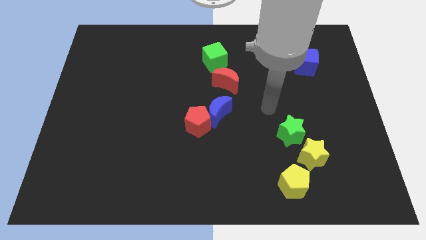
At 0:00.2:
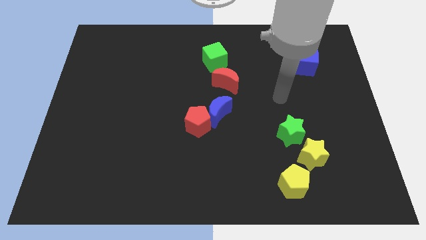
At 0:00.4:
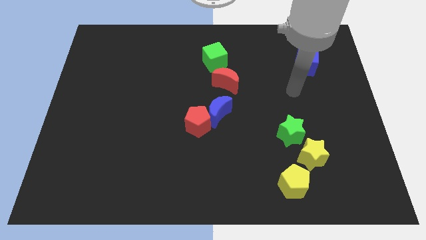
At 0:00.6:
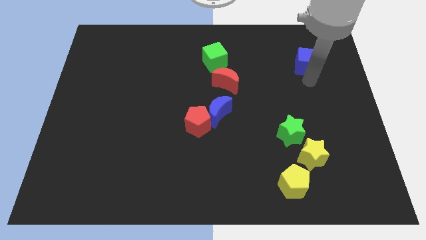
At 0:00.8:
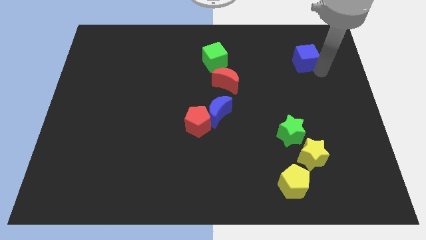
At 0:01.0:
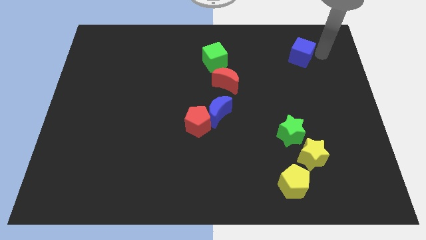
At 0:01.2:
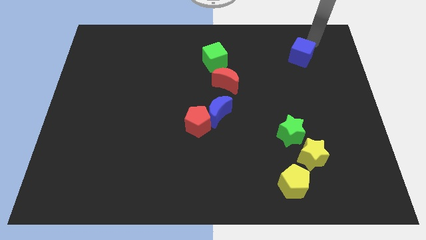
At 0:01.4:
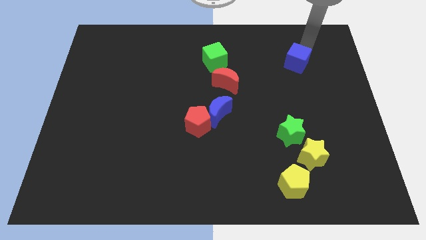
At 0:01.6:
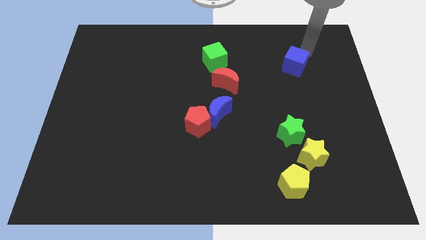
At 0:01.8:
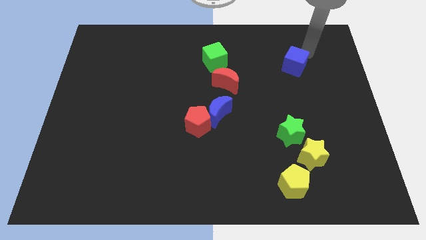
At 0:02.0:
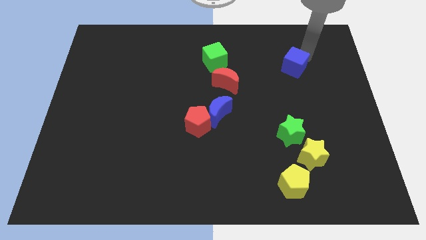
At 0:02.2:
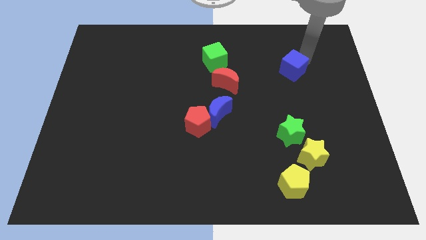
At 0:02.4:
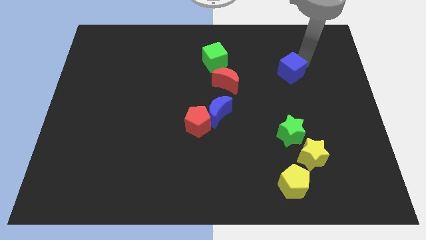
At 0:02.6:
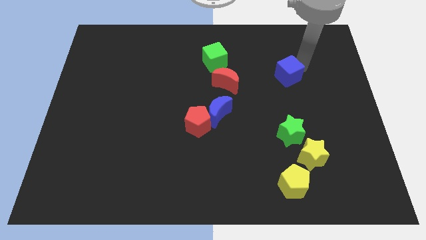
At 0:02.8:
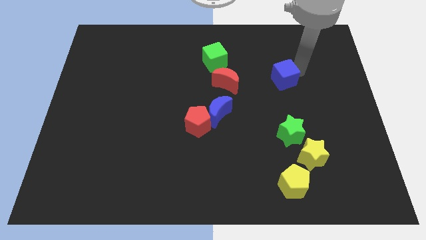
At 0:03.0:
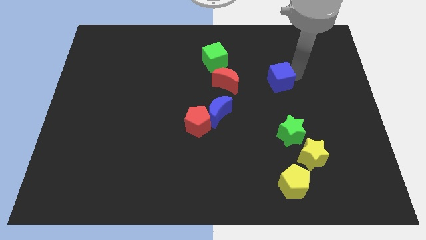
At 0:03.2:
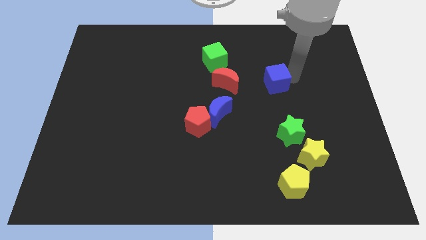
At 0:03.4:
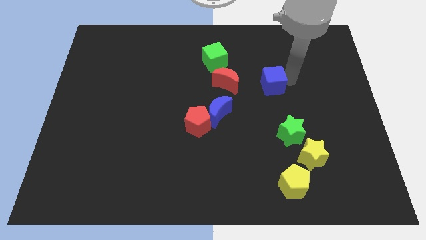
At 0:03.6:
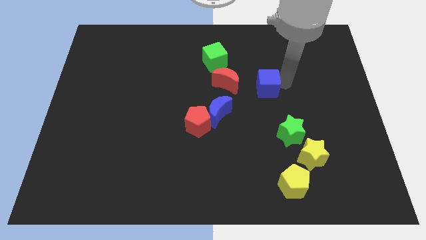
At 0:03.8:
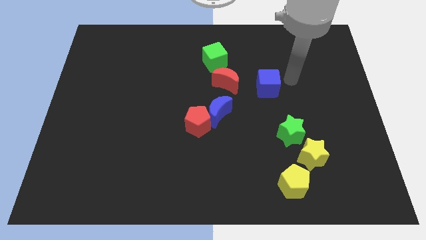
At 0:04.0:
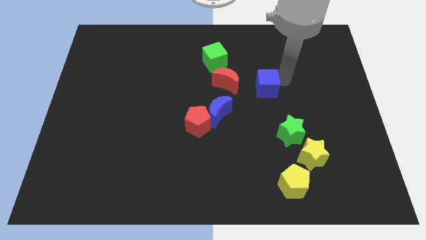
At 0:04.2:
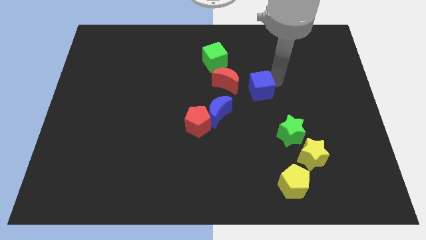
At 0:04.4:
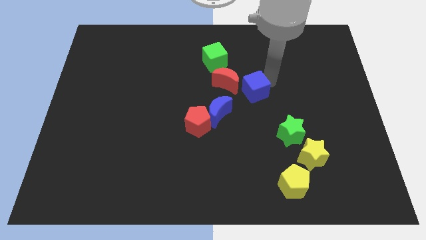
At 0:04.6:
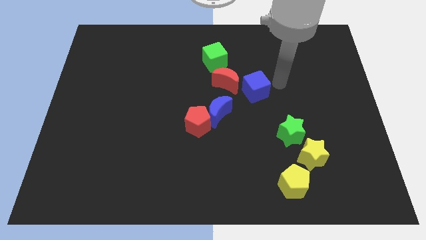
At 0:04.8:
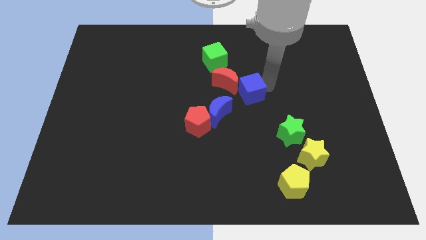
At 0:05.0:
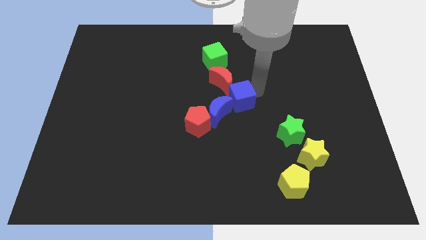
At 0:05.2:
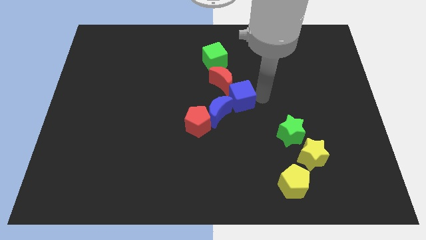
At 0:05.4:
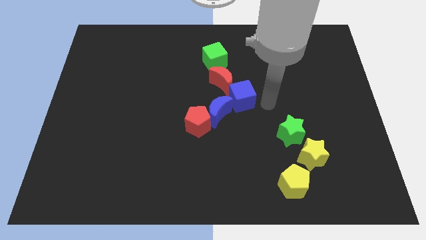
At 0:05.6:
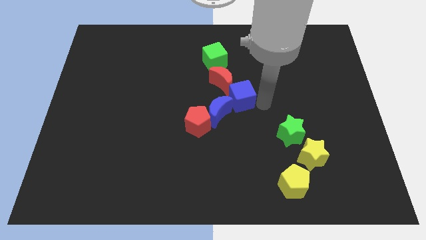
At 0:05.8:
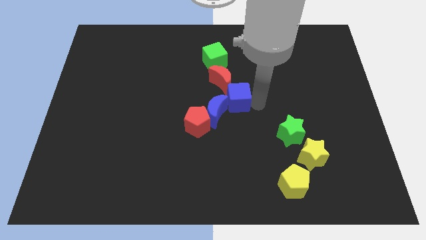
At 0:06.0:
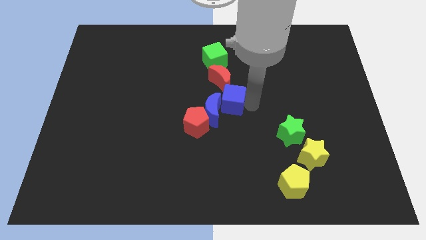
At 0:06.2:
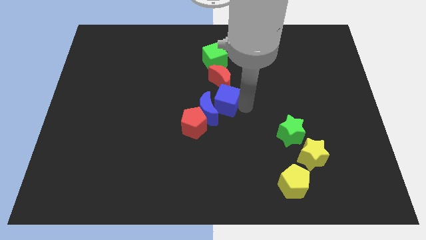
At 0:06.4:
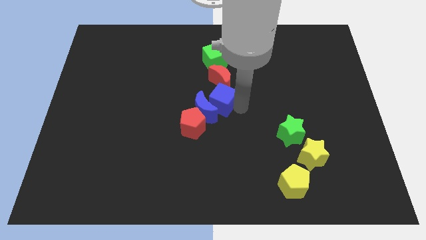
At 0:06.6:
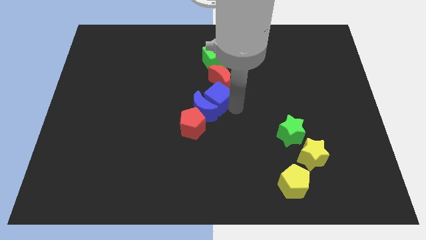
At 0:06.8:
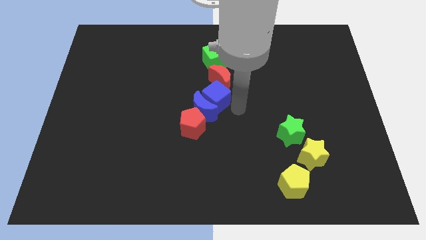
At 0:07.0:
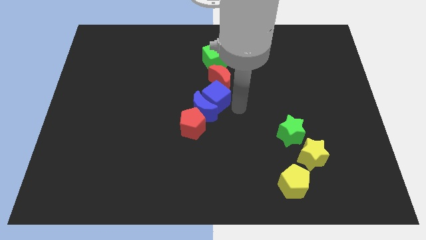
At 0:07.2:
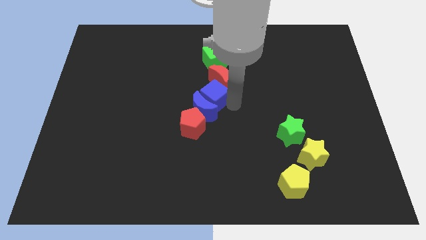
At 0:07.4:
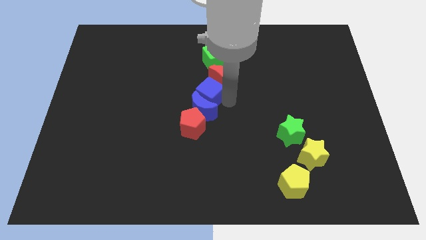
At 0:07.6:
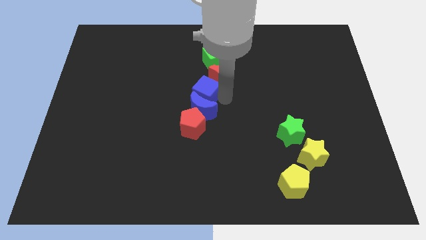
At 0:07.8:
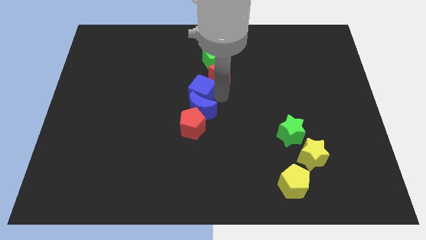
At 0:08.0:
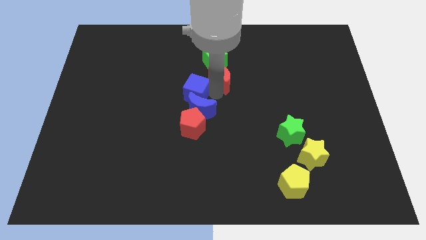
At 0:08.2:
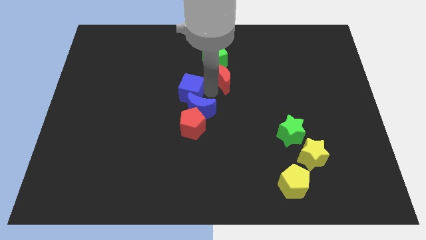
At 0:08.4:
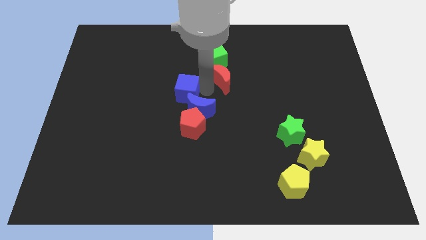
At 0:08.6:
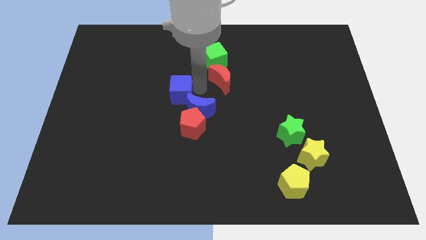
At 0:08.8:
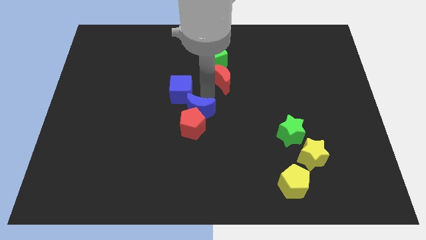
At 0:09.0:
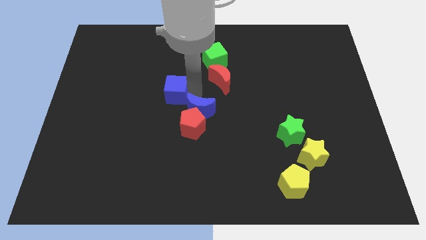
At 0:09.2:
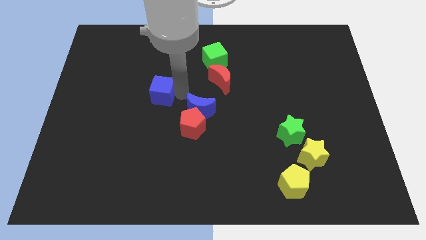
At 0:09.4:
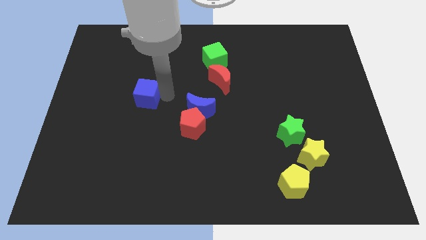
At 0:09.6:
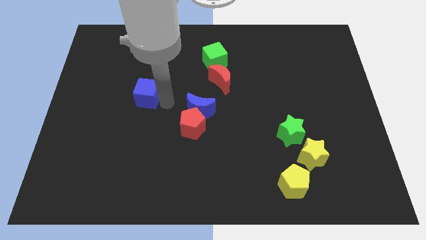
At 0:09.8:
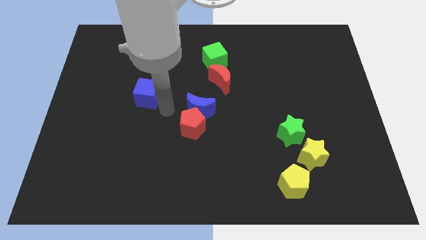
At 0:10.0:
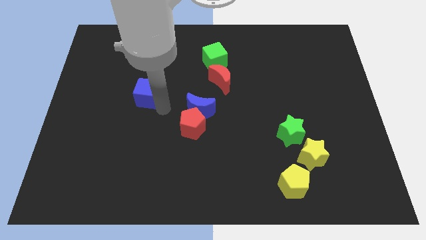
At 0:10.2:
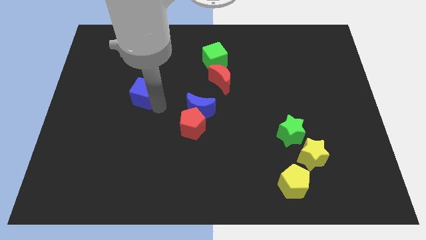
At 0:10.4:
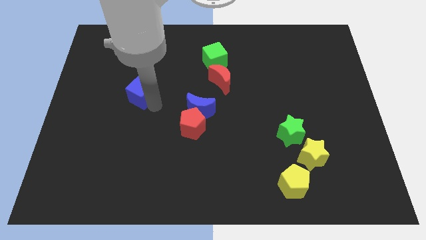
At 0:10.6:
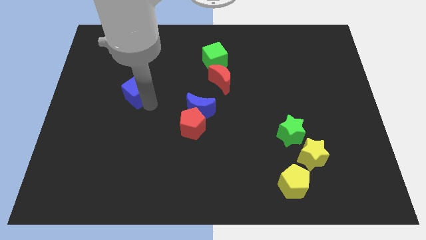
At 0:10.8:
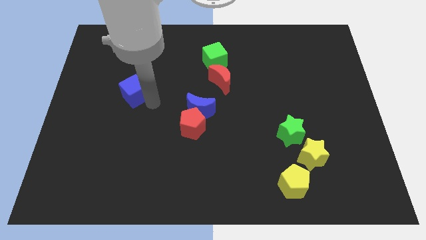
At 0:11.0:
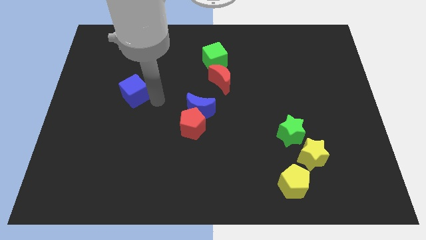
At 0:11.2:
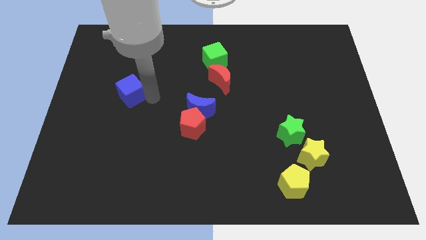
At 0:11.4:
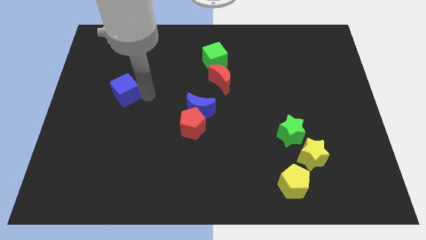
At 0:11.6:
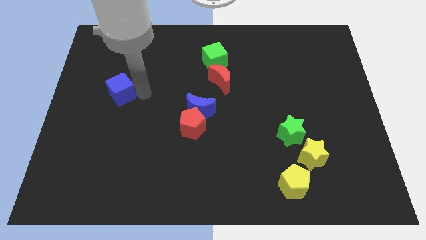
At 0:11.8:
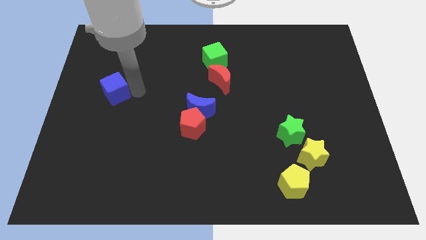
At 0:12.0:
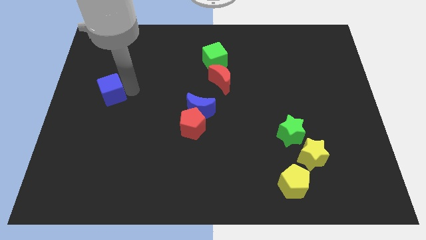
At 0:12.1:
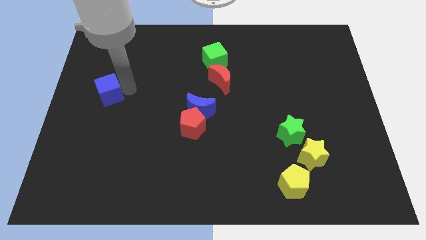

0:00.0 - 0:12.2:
move the blue cube to the left side
